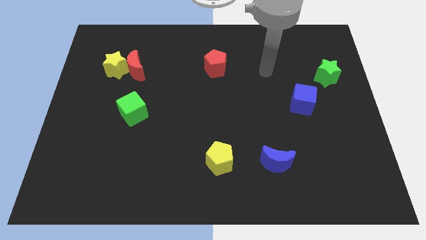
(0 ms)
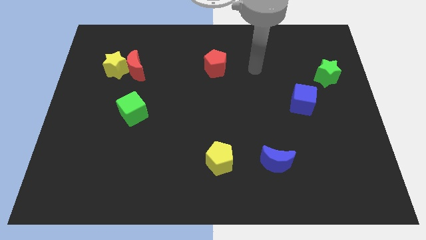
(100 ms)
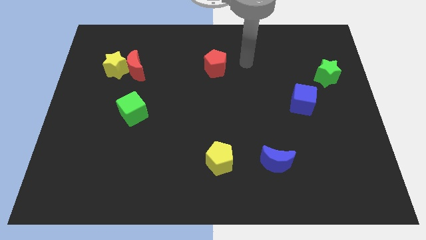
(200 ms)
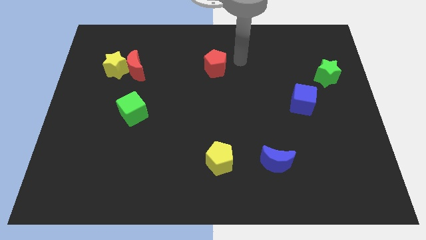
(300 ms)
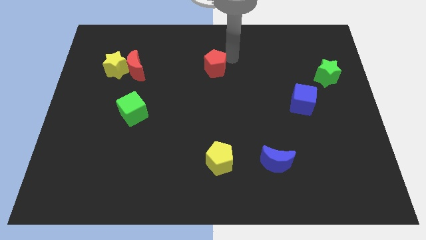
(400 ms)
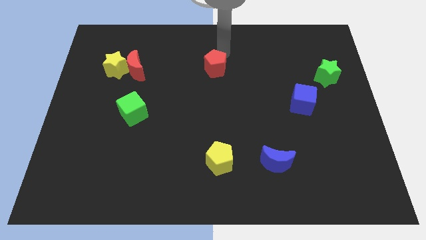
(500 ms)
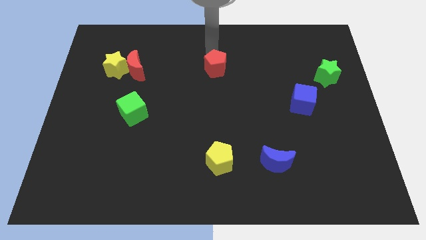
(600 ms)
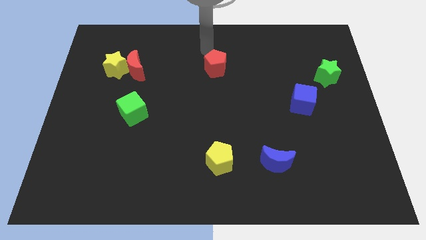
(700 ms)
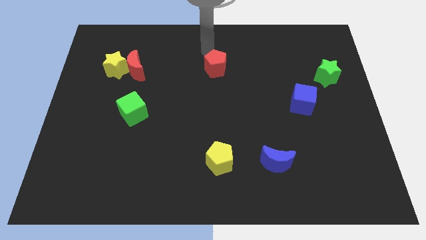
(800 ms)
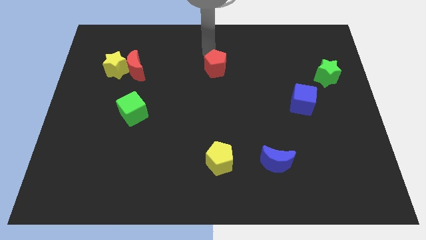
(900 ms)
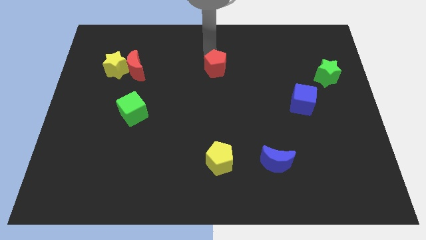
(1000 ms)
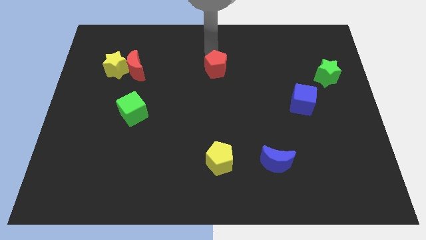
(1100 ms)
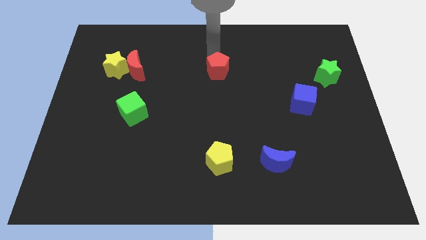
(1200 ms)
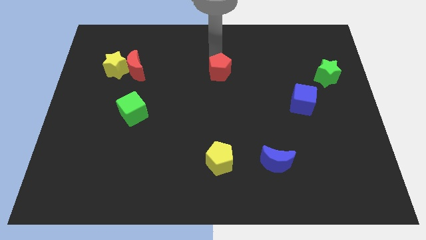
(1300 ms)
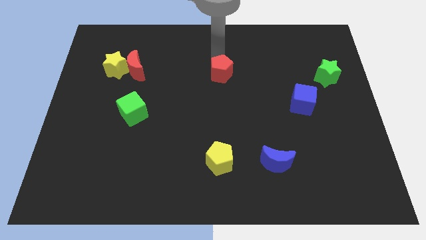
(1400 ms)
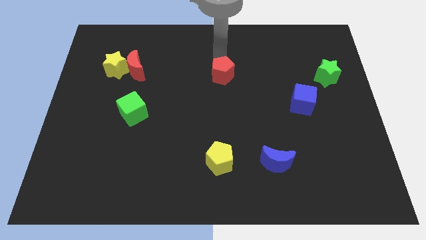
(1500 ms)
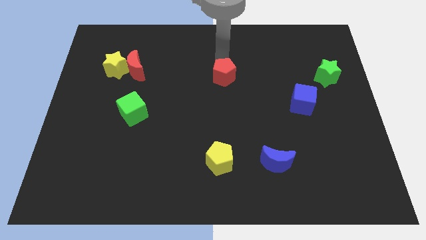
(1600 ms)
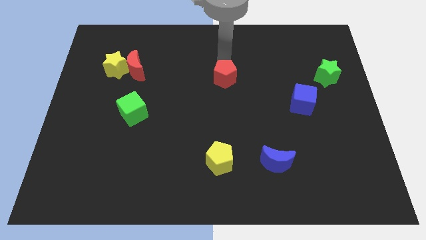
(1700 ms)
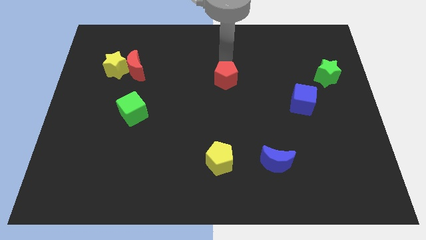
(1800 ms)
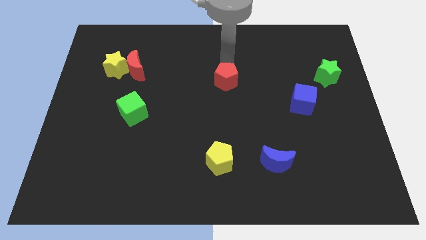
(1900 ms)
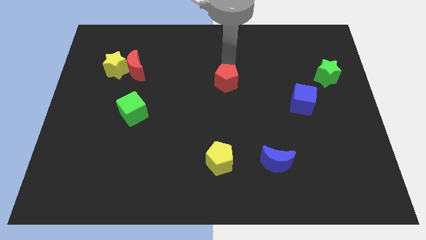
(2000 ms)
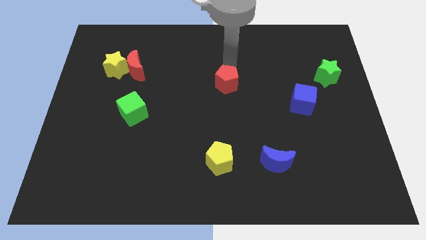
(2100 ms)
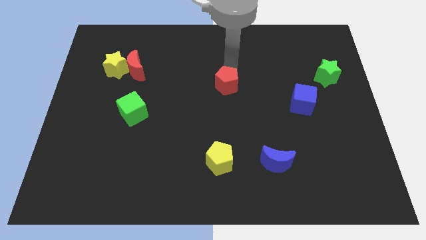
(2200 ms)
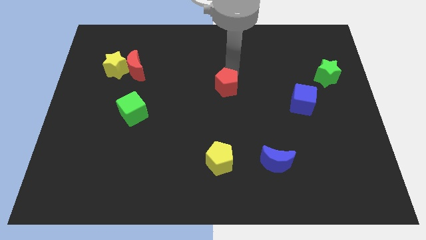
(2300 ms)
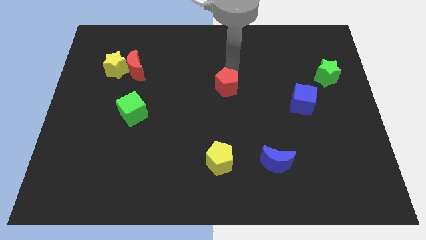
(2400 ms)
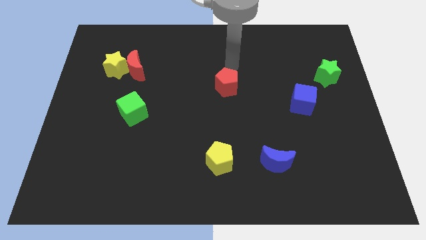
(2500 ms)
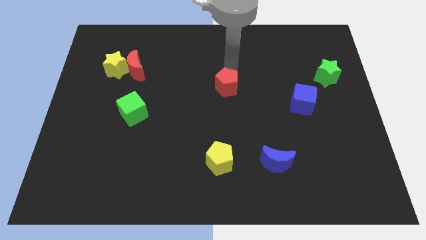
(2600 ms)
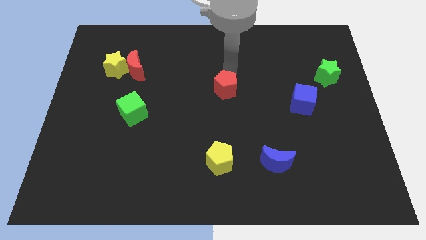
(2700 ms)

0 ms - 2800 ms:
slightly push the red pentagon downwards

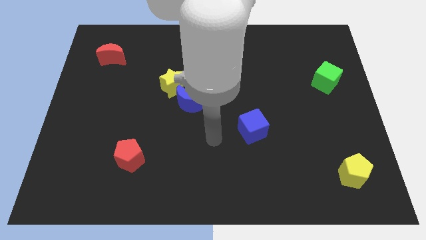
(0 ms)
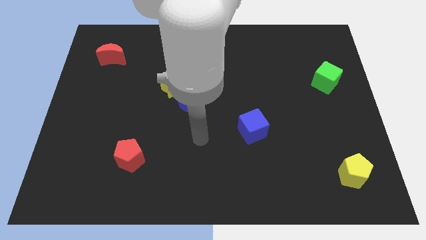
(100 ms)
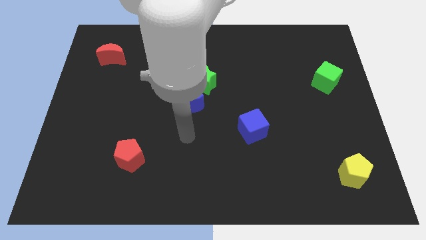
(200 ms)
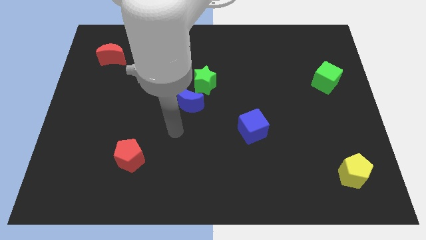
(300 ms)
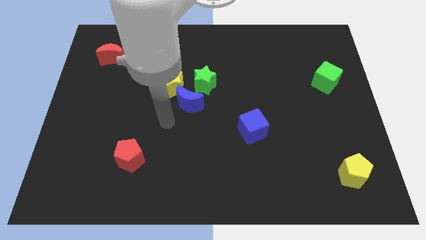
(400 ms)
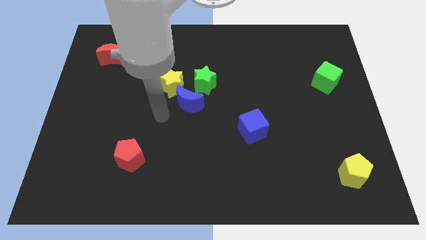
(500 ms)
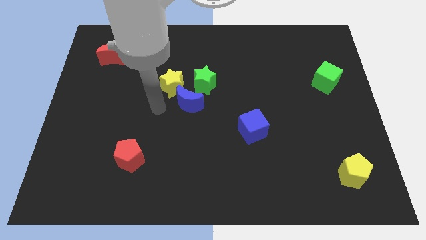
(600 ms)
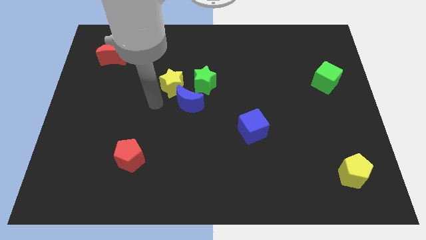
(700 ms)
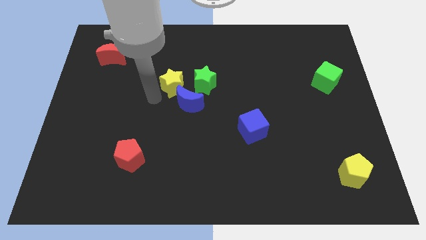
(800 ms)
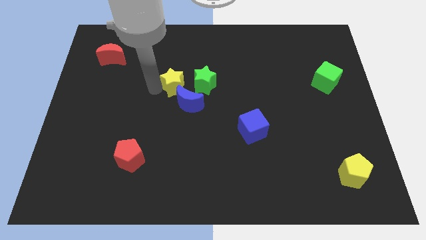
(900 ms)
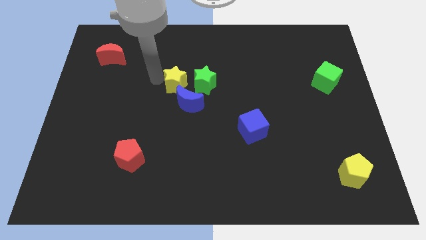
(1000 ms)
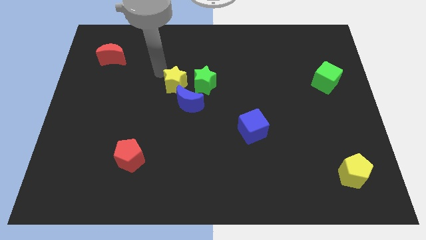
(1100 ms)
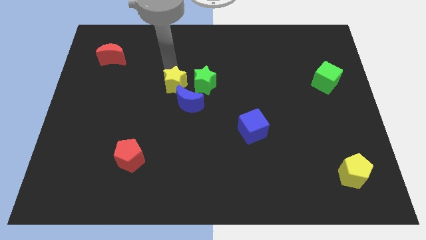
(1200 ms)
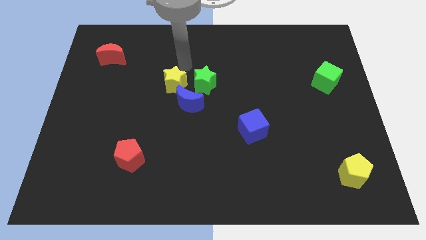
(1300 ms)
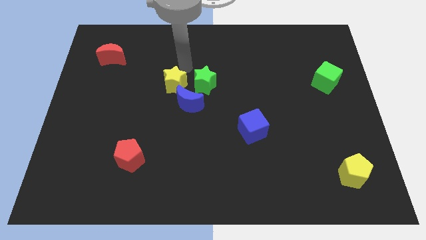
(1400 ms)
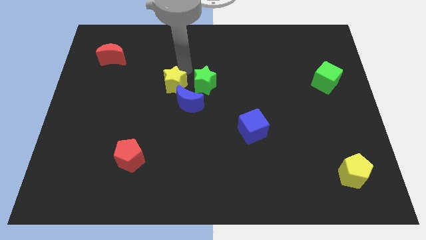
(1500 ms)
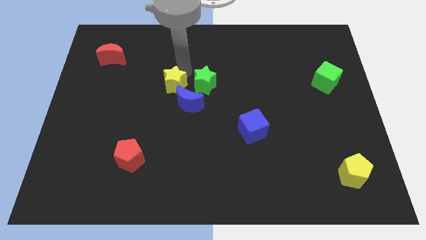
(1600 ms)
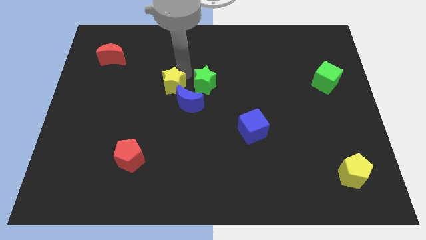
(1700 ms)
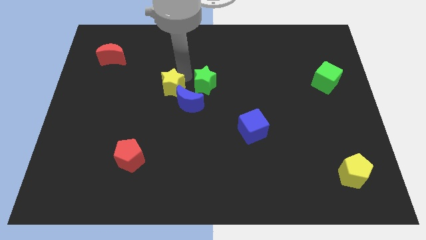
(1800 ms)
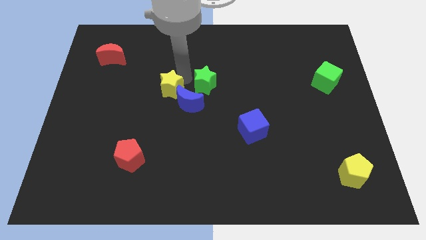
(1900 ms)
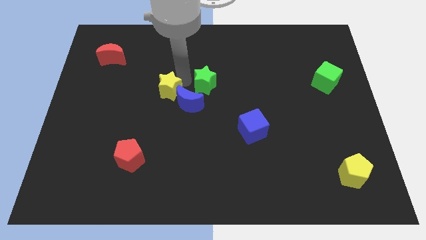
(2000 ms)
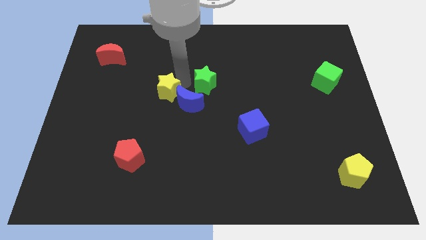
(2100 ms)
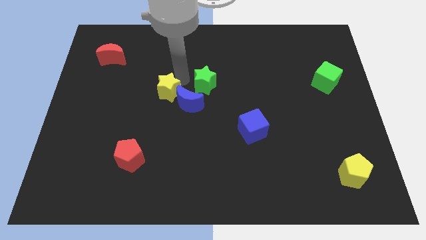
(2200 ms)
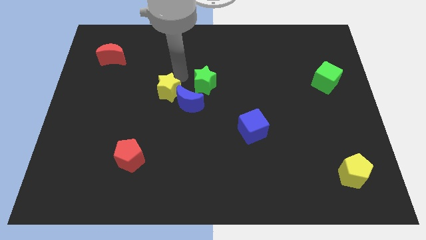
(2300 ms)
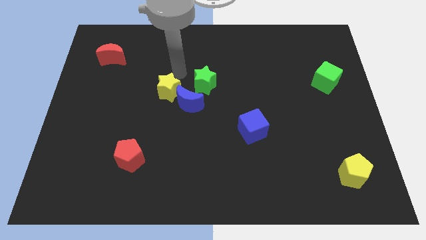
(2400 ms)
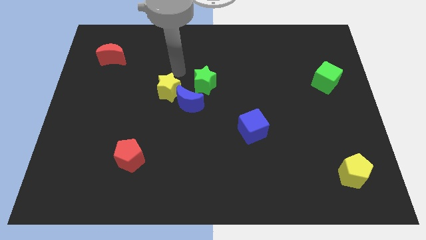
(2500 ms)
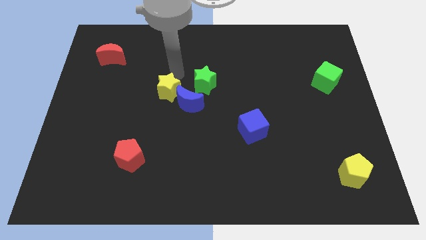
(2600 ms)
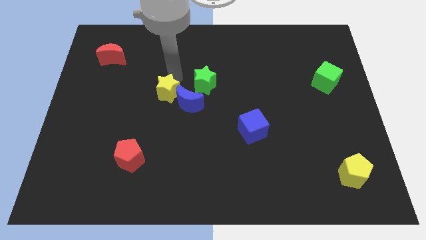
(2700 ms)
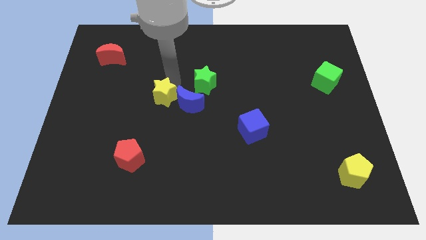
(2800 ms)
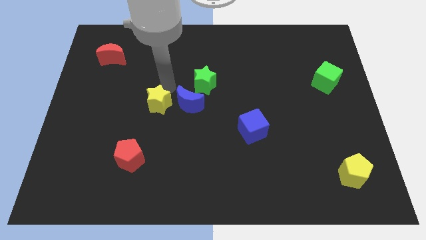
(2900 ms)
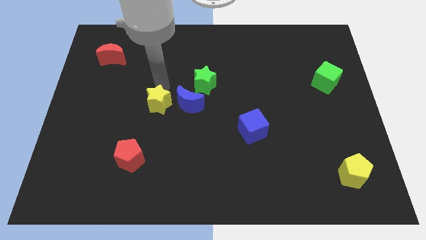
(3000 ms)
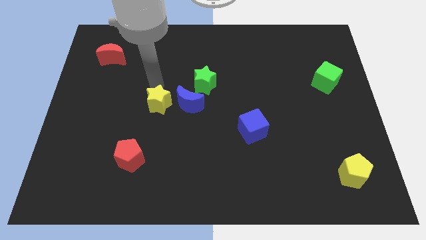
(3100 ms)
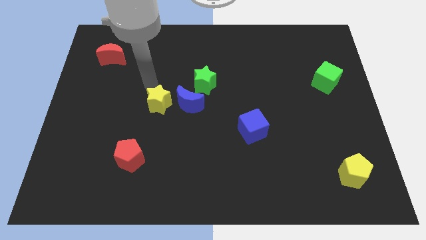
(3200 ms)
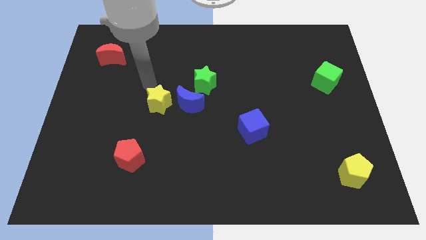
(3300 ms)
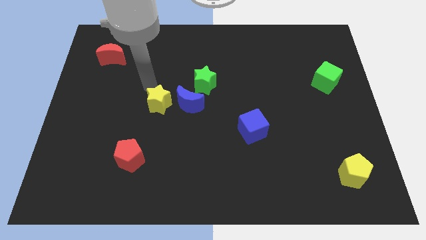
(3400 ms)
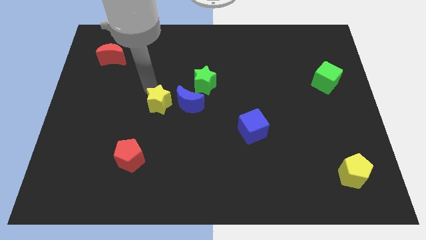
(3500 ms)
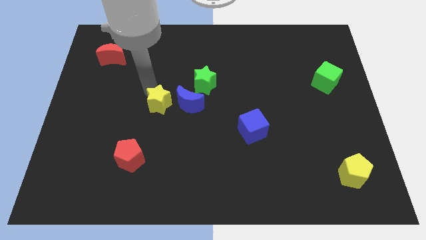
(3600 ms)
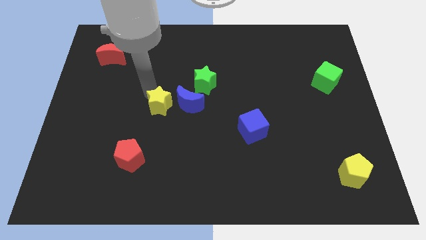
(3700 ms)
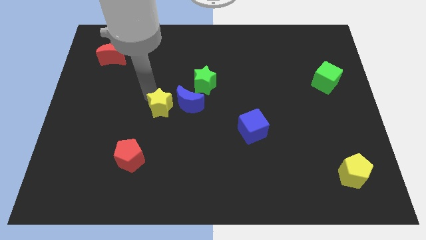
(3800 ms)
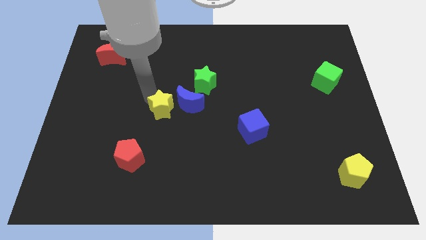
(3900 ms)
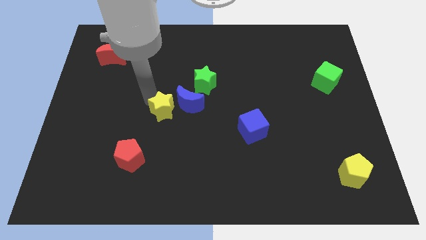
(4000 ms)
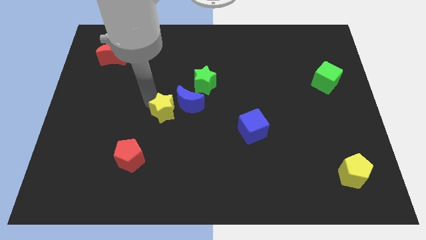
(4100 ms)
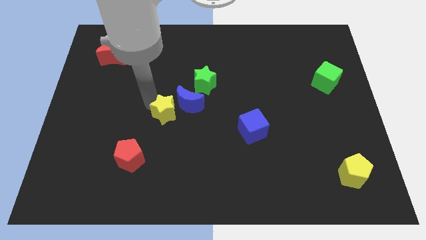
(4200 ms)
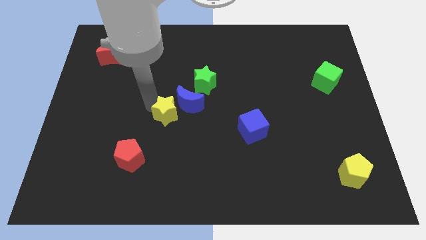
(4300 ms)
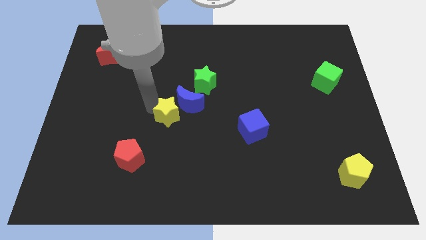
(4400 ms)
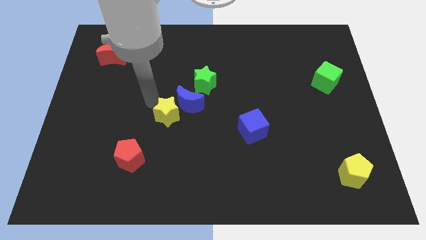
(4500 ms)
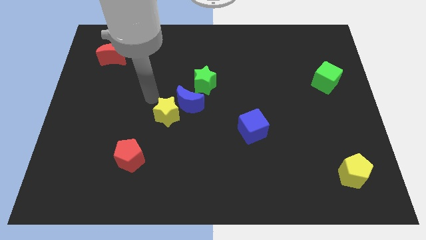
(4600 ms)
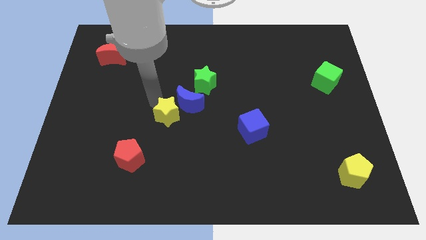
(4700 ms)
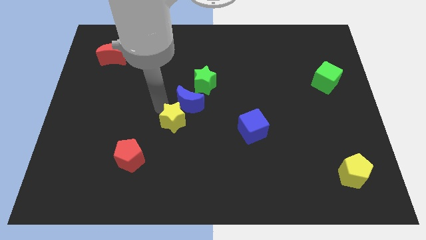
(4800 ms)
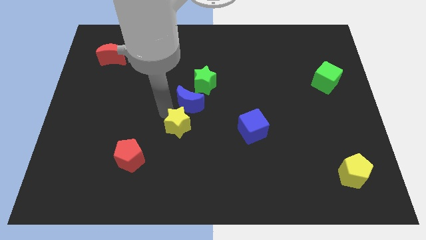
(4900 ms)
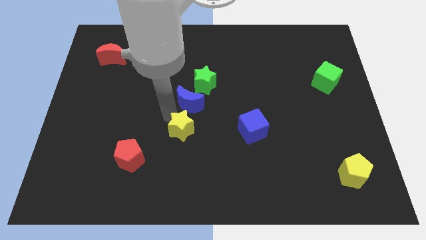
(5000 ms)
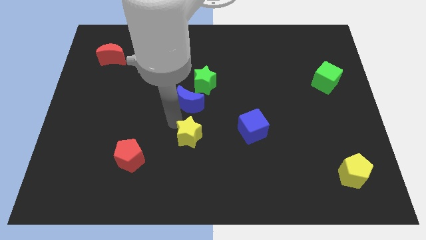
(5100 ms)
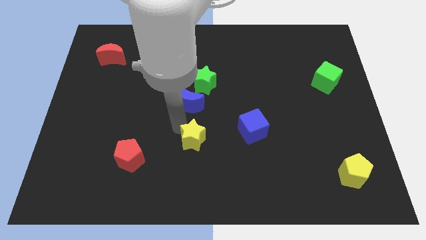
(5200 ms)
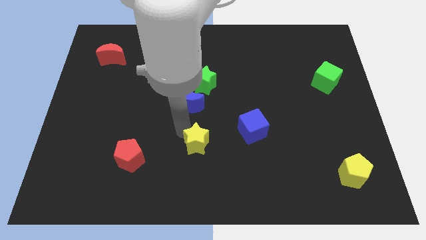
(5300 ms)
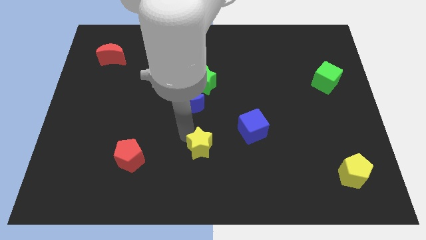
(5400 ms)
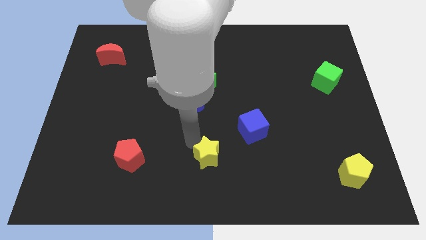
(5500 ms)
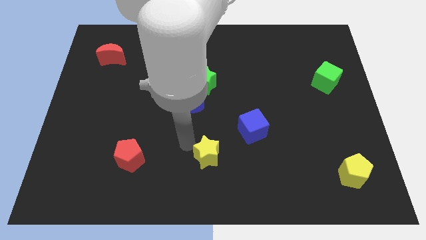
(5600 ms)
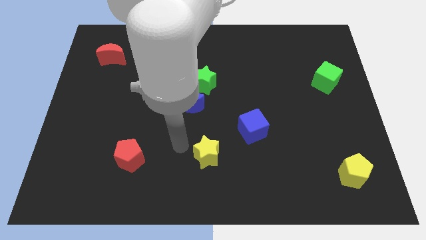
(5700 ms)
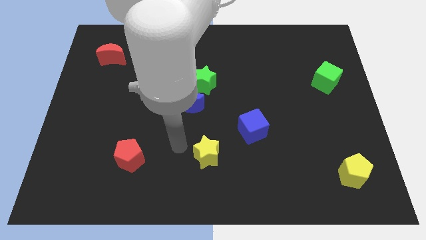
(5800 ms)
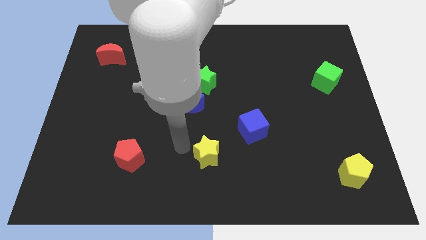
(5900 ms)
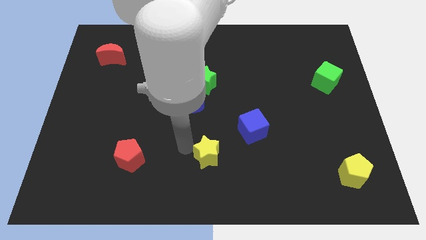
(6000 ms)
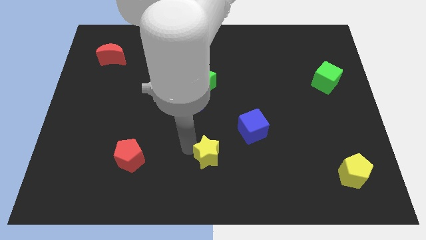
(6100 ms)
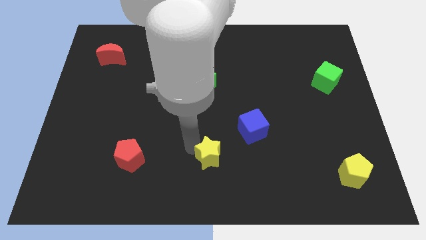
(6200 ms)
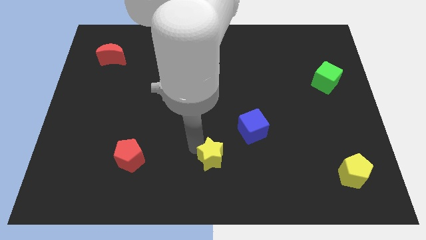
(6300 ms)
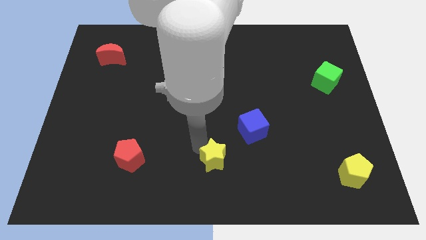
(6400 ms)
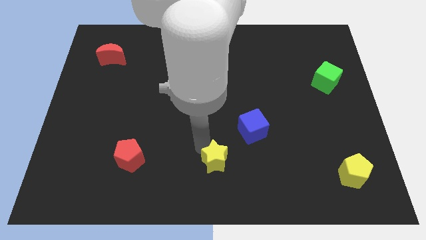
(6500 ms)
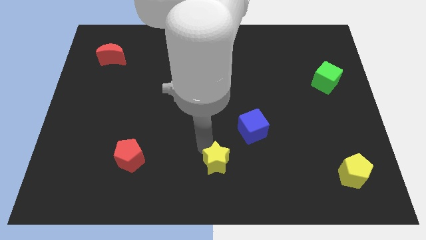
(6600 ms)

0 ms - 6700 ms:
slide the yellow star downwards and then right
